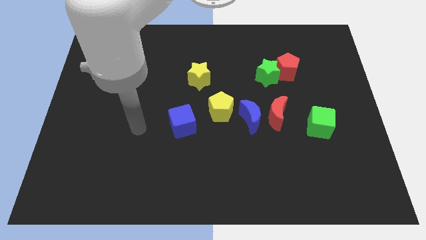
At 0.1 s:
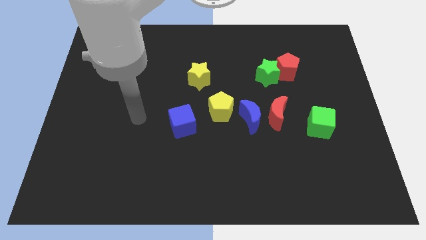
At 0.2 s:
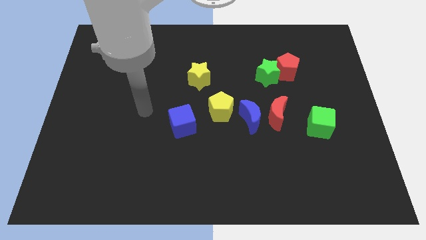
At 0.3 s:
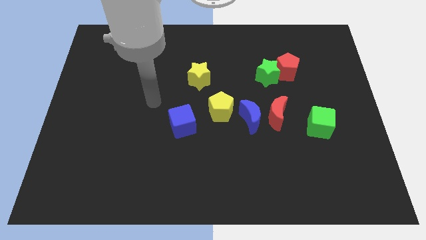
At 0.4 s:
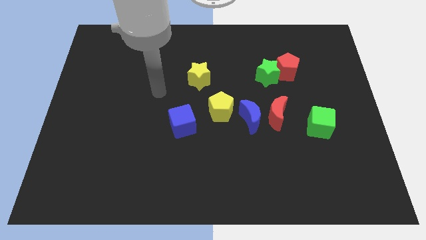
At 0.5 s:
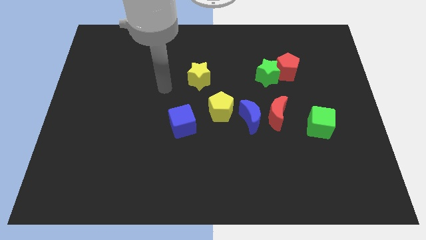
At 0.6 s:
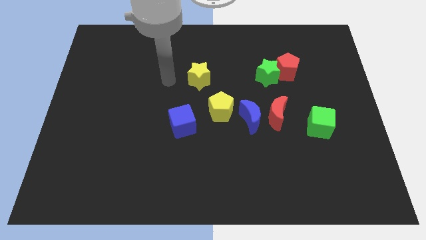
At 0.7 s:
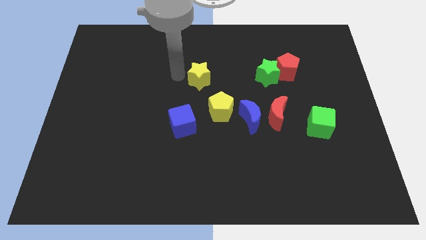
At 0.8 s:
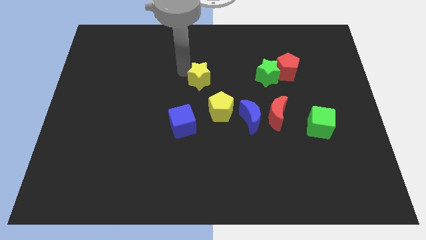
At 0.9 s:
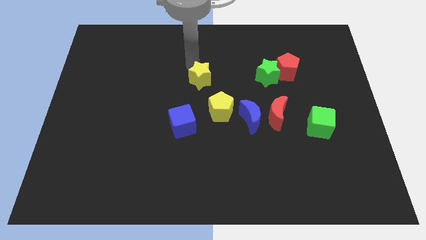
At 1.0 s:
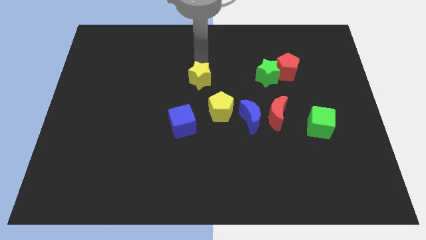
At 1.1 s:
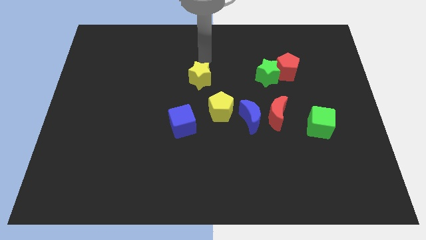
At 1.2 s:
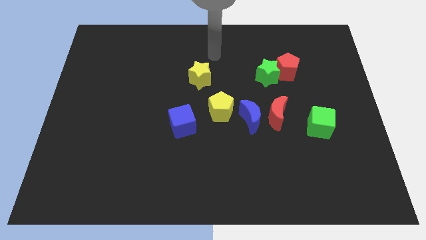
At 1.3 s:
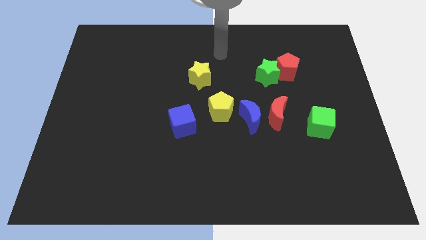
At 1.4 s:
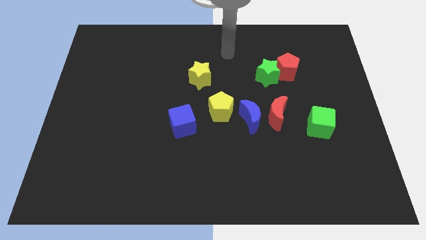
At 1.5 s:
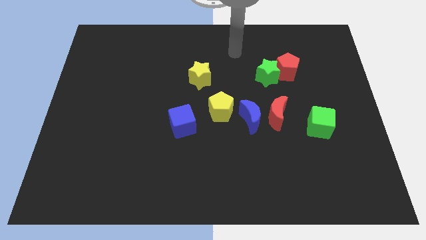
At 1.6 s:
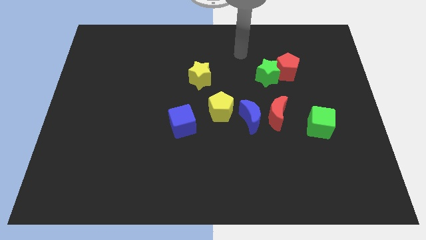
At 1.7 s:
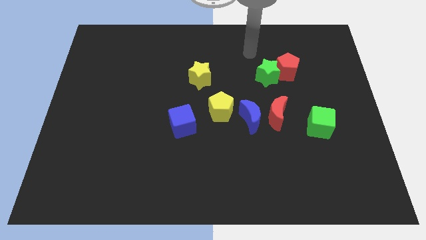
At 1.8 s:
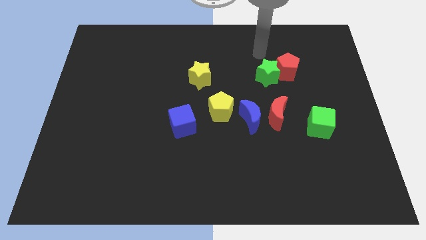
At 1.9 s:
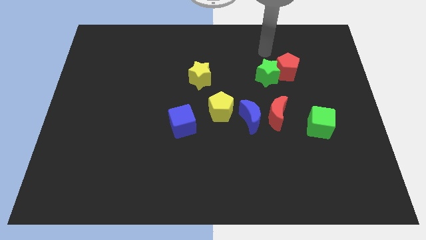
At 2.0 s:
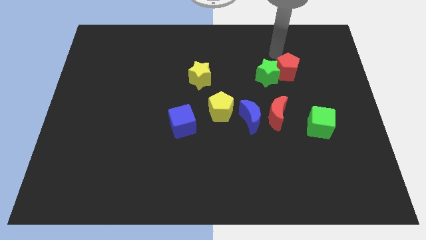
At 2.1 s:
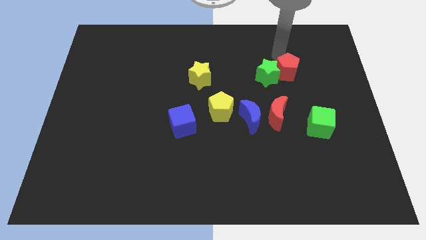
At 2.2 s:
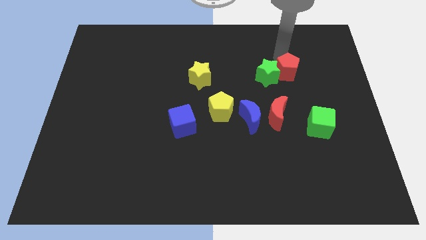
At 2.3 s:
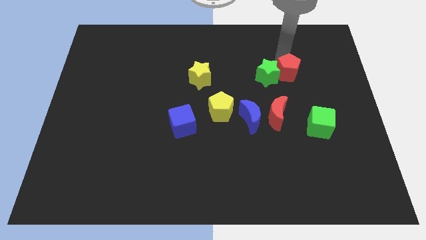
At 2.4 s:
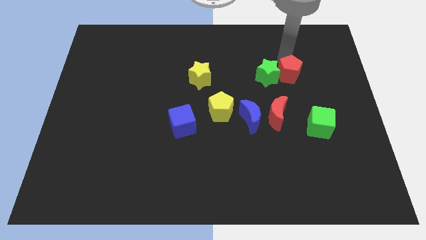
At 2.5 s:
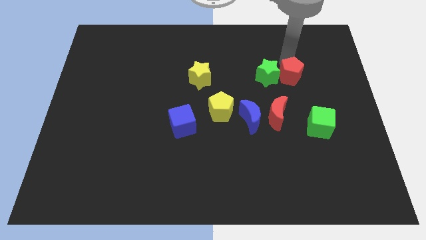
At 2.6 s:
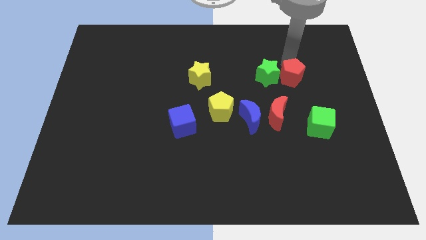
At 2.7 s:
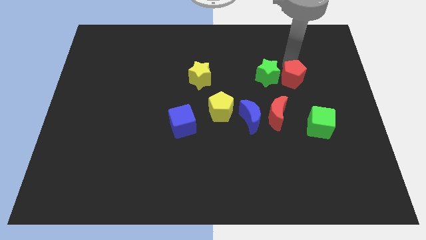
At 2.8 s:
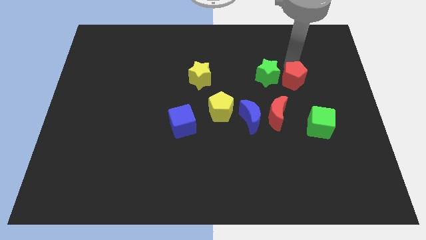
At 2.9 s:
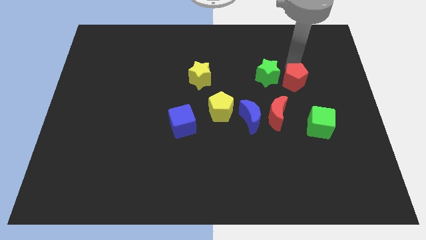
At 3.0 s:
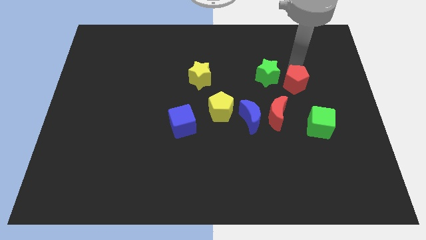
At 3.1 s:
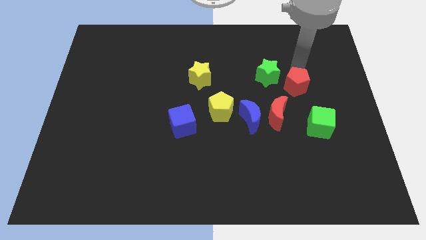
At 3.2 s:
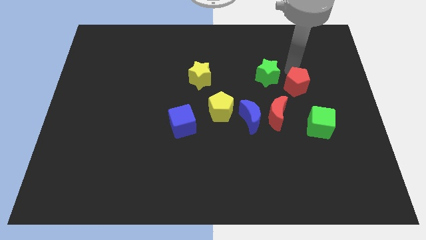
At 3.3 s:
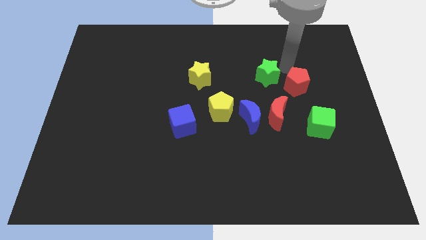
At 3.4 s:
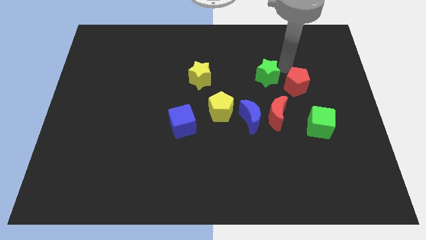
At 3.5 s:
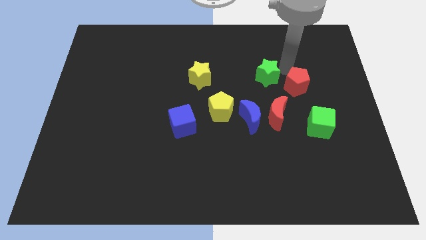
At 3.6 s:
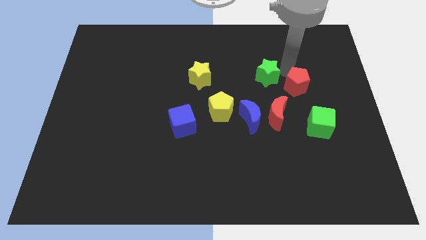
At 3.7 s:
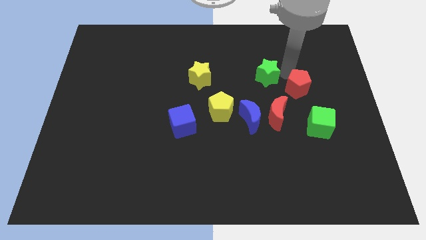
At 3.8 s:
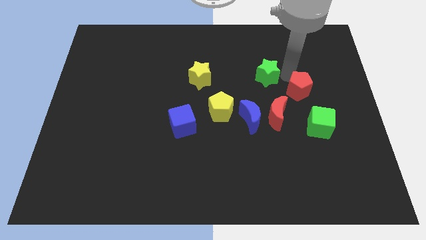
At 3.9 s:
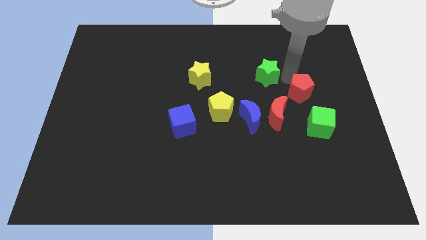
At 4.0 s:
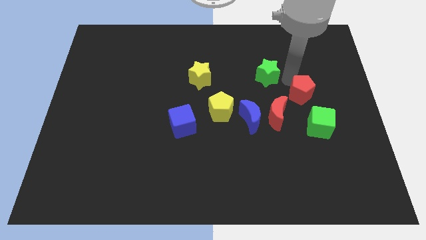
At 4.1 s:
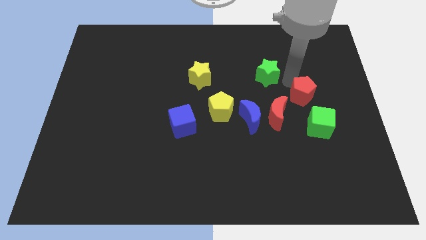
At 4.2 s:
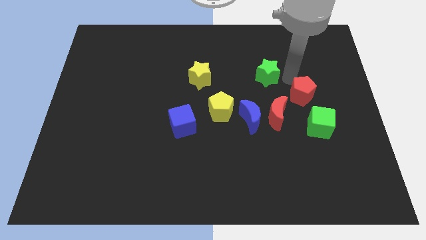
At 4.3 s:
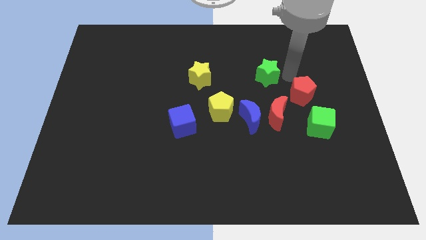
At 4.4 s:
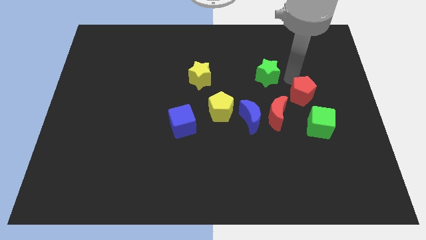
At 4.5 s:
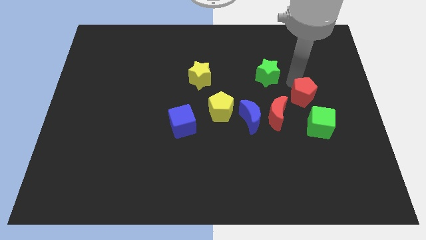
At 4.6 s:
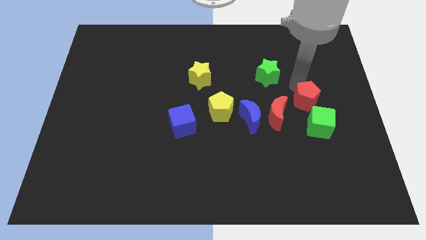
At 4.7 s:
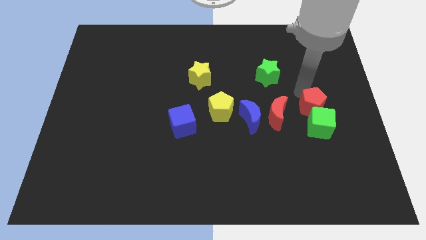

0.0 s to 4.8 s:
move the red pentagon next to the green cube

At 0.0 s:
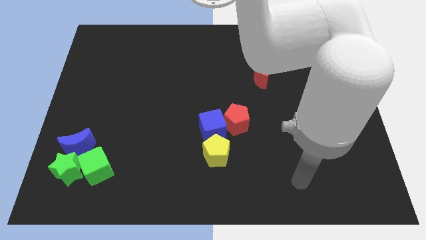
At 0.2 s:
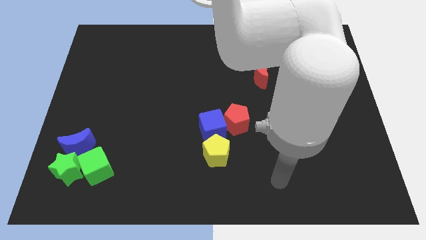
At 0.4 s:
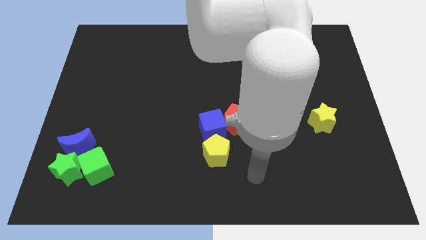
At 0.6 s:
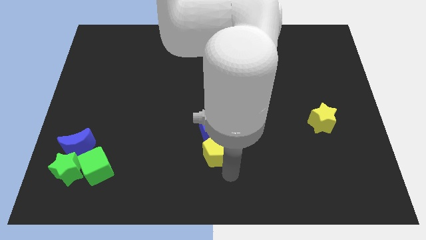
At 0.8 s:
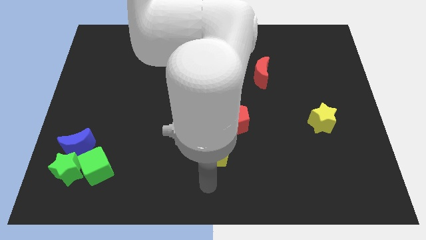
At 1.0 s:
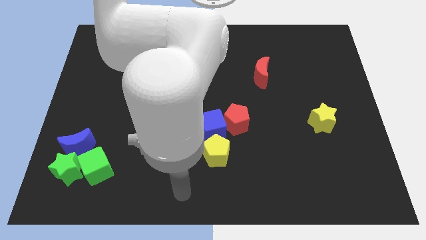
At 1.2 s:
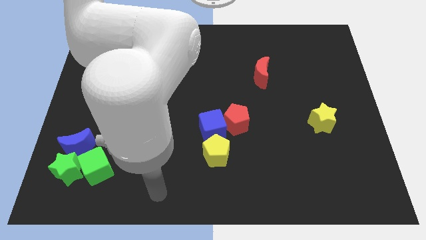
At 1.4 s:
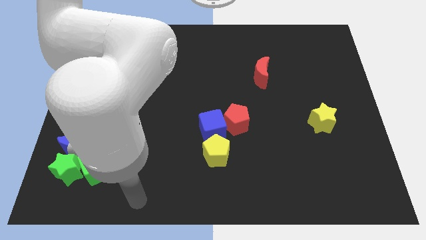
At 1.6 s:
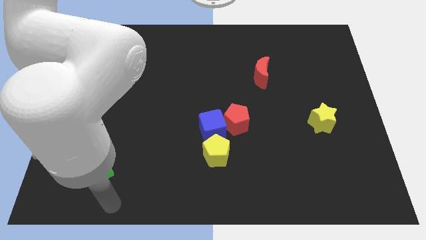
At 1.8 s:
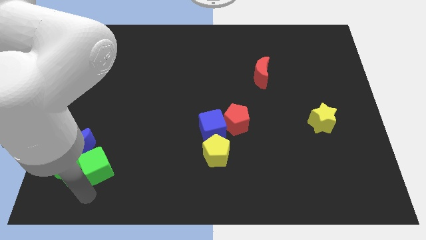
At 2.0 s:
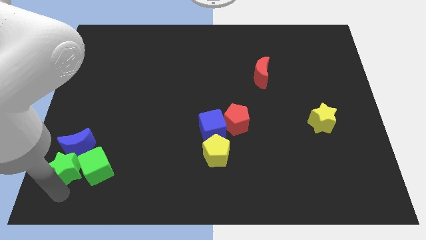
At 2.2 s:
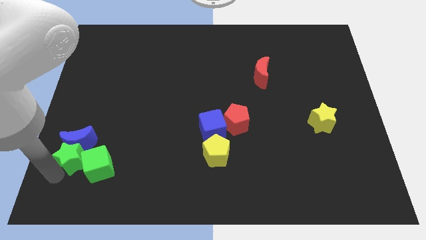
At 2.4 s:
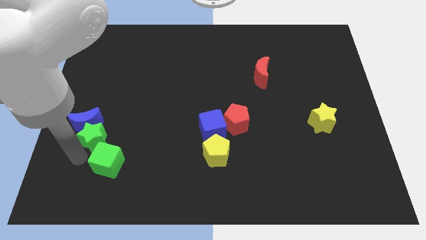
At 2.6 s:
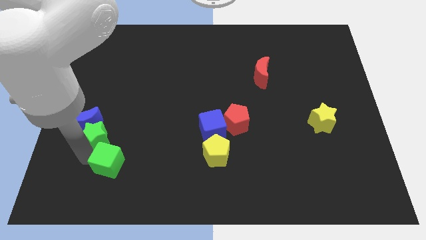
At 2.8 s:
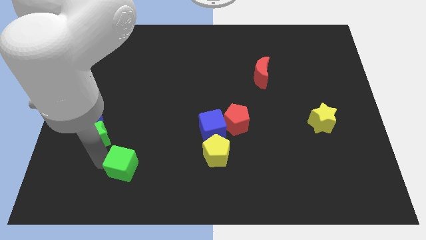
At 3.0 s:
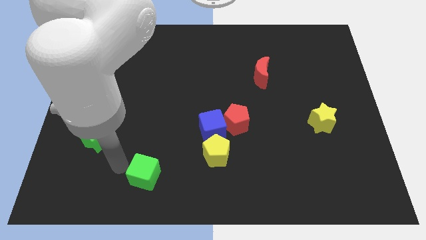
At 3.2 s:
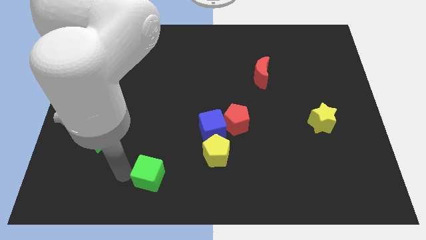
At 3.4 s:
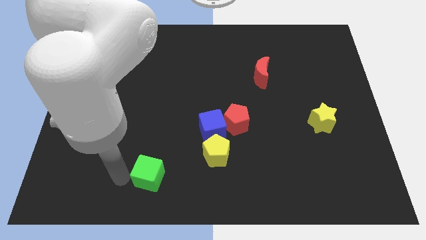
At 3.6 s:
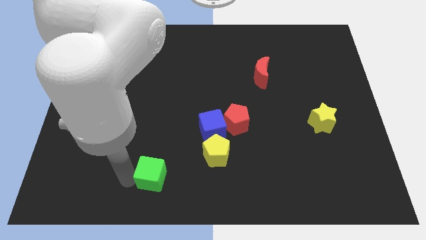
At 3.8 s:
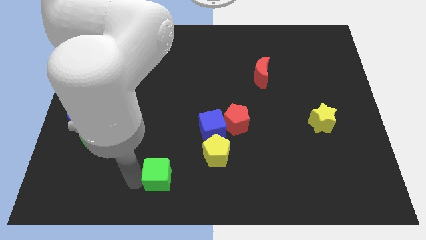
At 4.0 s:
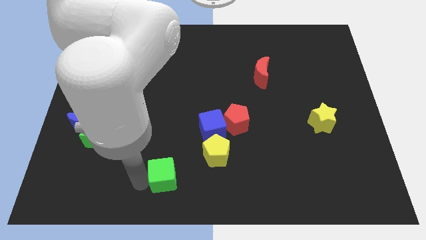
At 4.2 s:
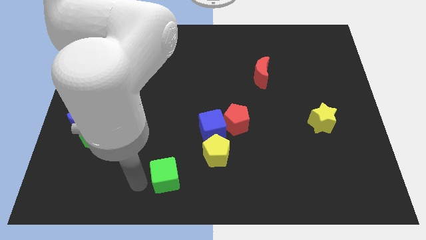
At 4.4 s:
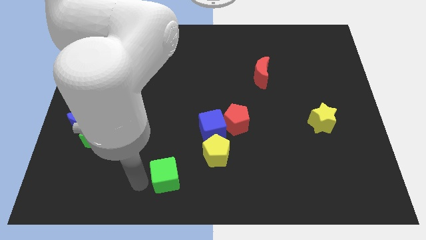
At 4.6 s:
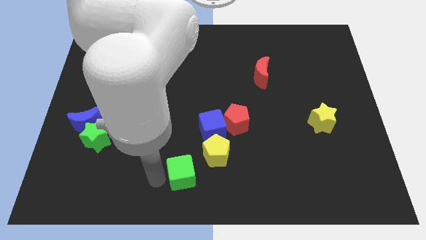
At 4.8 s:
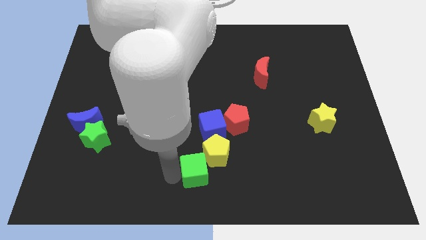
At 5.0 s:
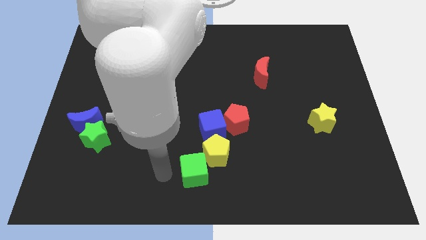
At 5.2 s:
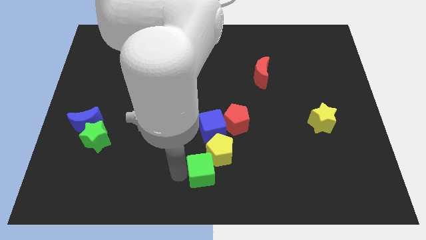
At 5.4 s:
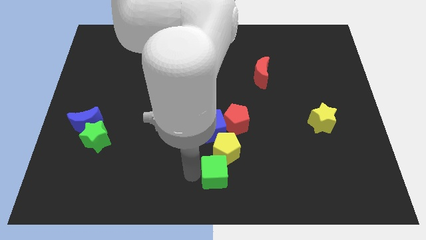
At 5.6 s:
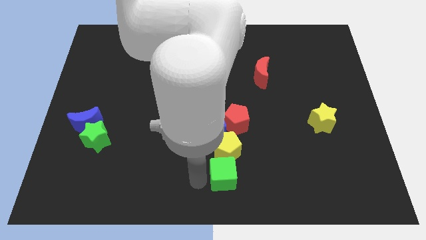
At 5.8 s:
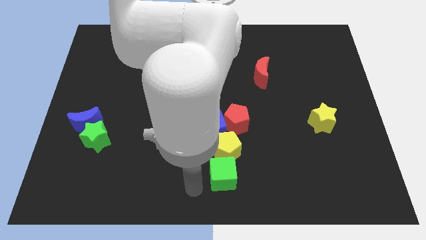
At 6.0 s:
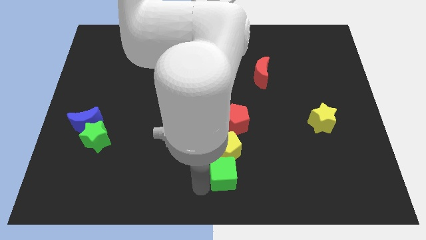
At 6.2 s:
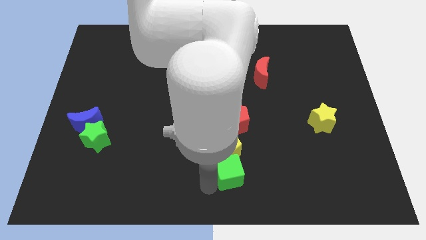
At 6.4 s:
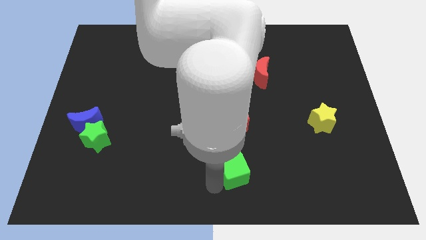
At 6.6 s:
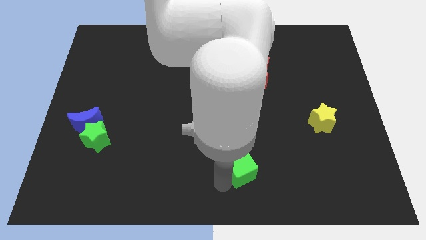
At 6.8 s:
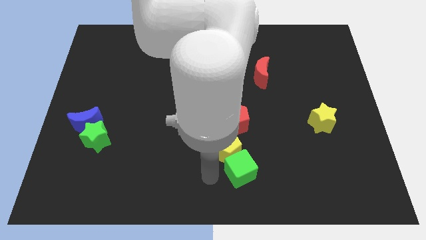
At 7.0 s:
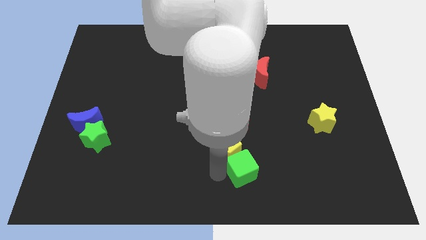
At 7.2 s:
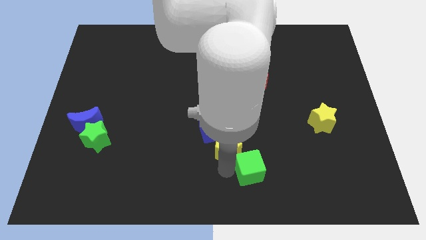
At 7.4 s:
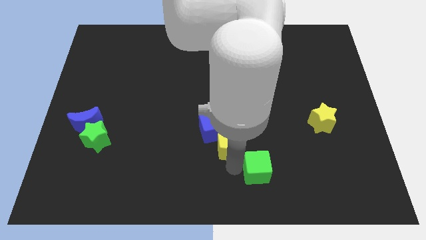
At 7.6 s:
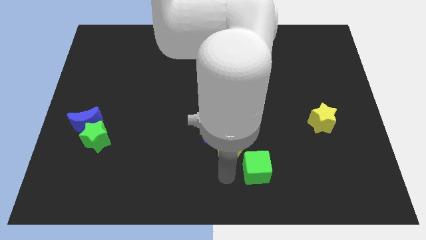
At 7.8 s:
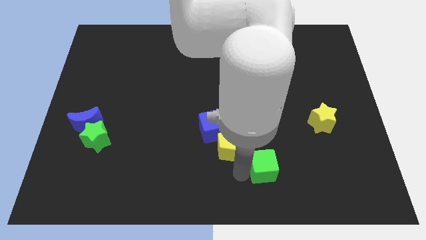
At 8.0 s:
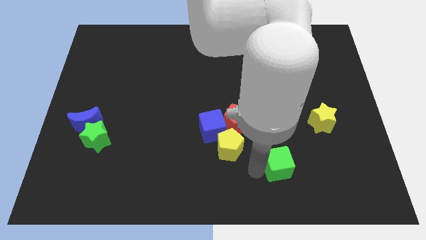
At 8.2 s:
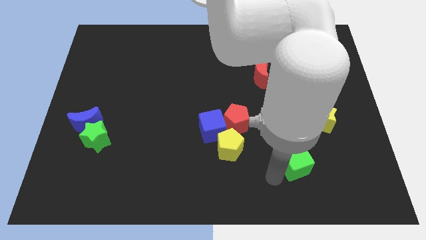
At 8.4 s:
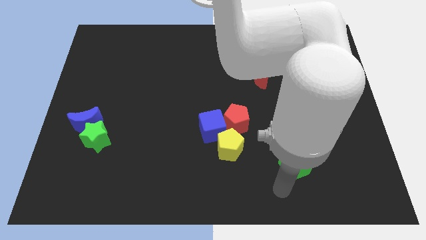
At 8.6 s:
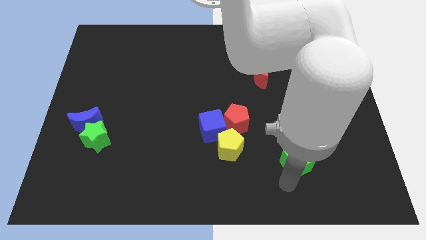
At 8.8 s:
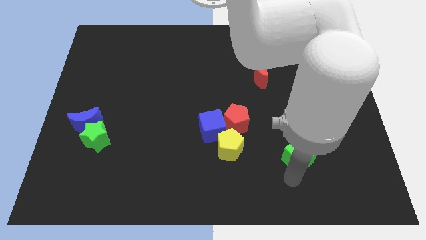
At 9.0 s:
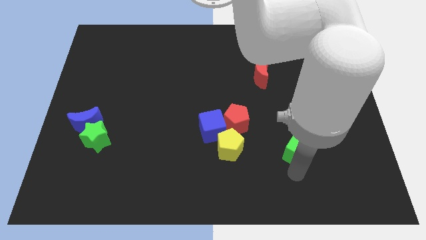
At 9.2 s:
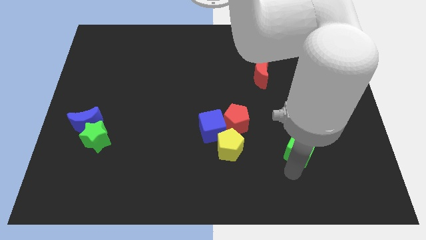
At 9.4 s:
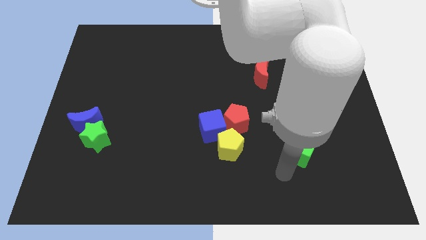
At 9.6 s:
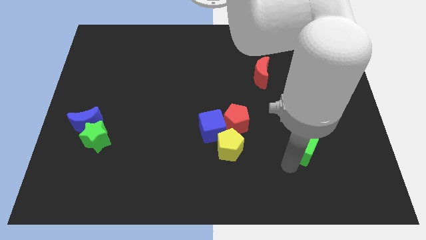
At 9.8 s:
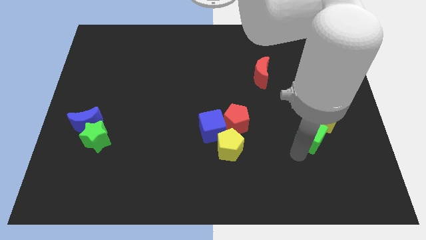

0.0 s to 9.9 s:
slide the green cube towards the yellow star
